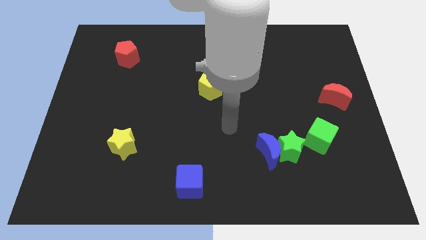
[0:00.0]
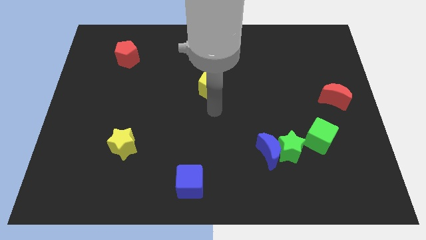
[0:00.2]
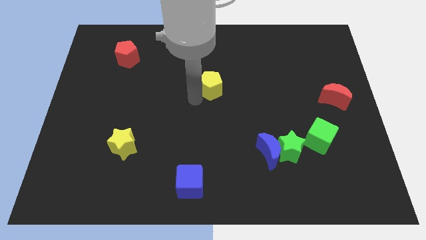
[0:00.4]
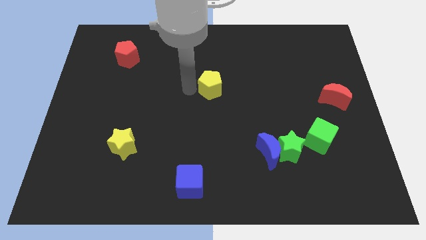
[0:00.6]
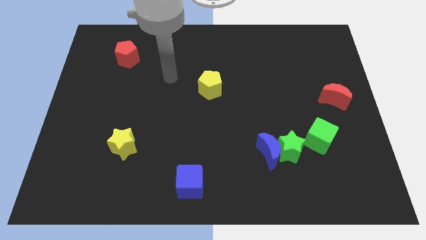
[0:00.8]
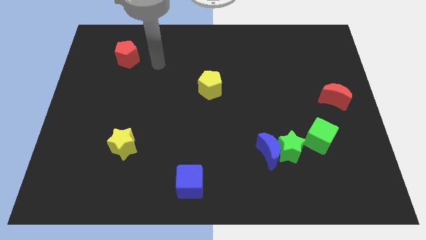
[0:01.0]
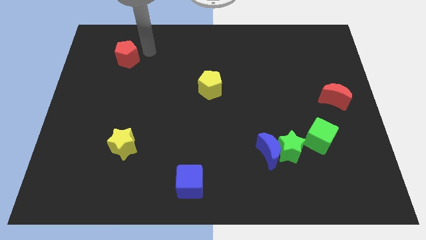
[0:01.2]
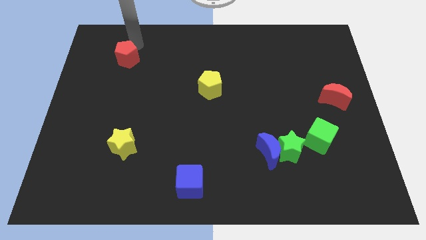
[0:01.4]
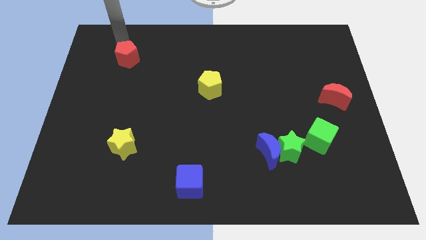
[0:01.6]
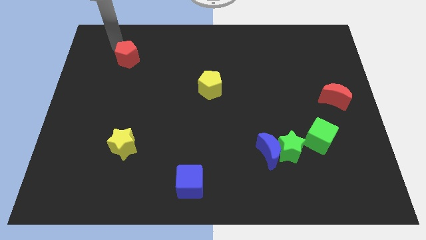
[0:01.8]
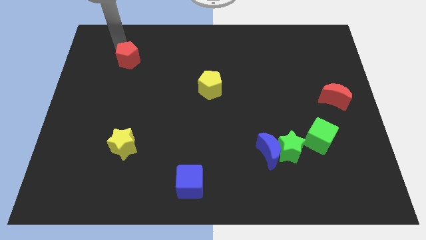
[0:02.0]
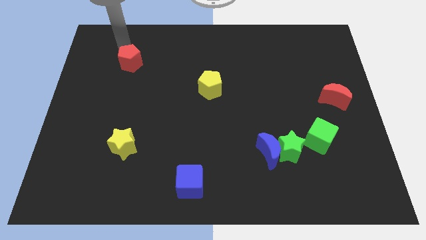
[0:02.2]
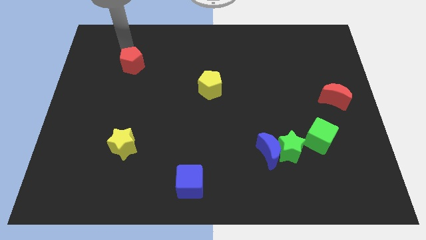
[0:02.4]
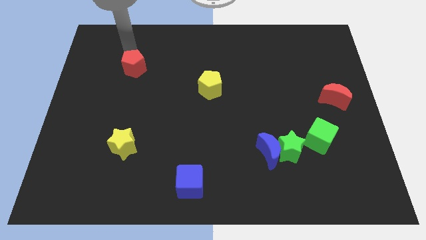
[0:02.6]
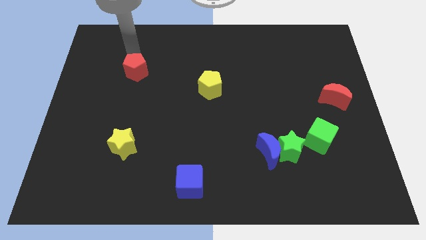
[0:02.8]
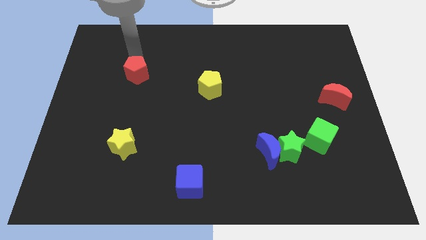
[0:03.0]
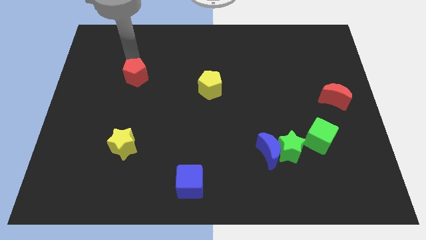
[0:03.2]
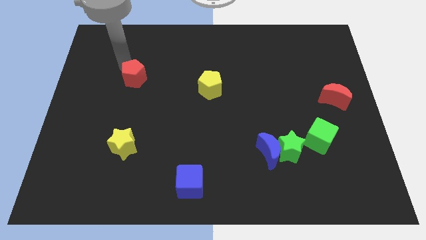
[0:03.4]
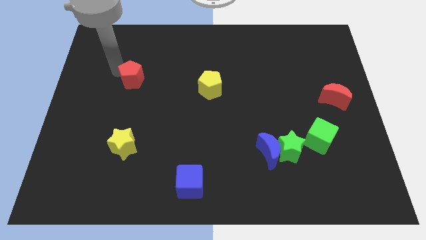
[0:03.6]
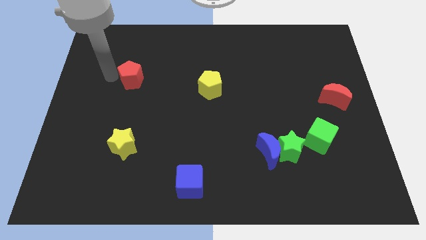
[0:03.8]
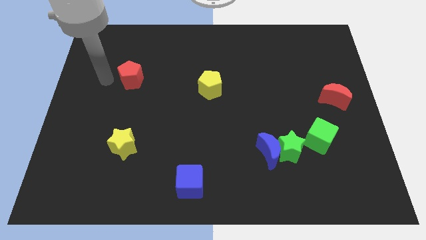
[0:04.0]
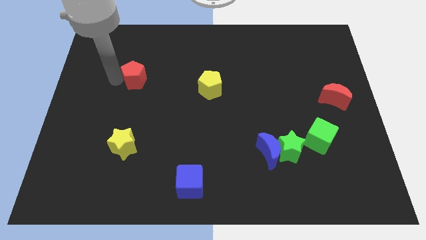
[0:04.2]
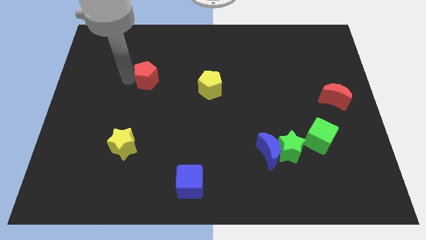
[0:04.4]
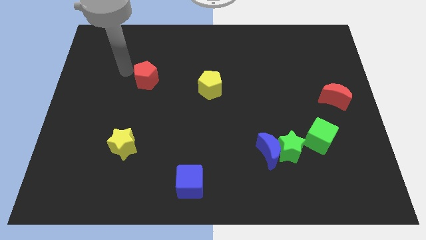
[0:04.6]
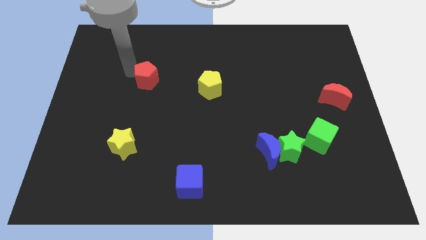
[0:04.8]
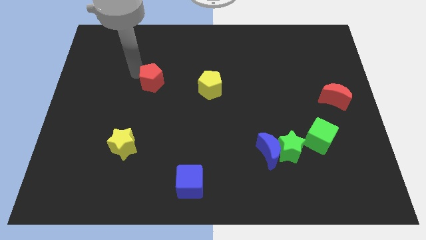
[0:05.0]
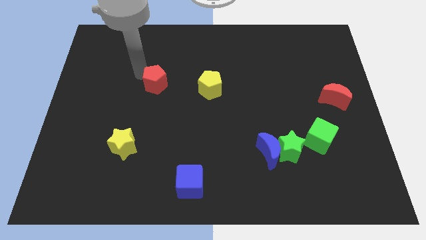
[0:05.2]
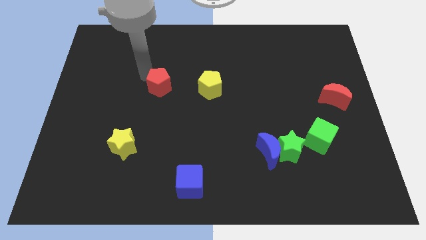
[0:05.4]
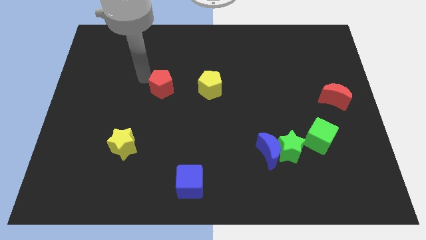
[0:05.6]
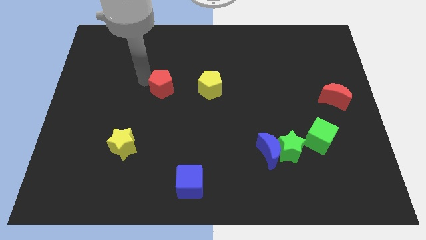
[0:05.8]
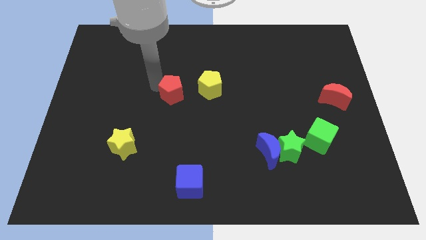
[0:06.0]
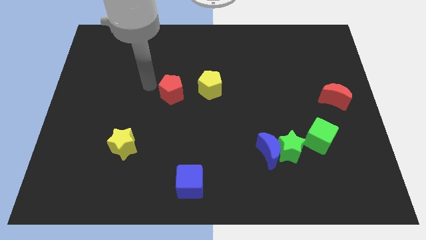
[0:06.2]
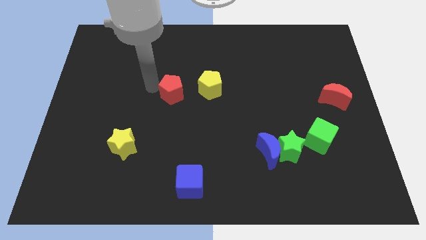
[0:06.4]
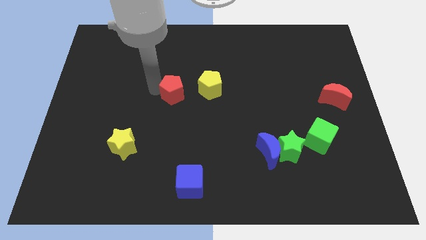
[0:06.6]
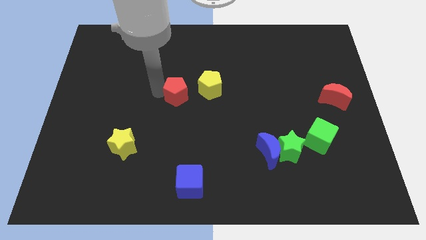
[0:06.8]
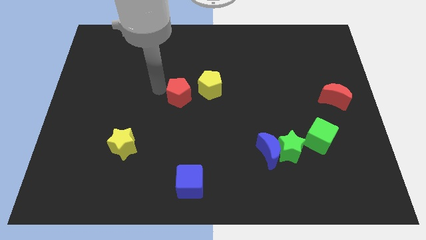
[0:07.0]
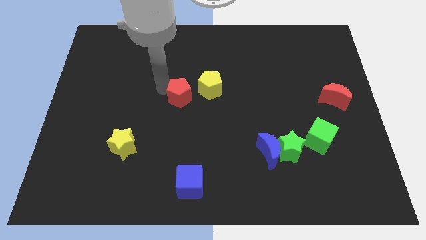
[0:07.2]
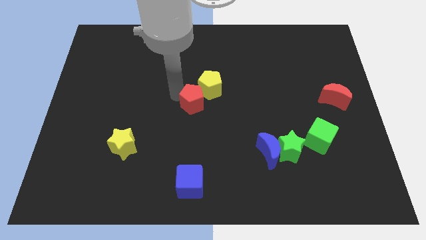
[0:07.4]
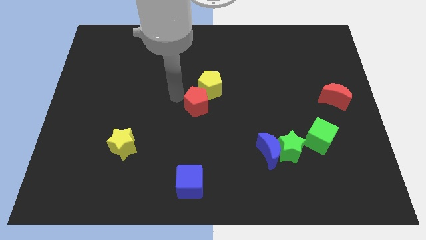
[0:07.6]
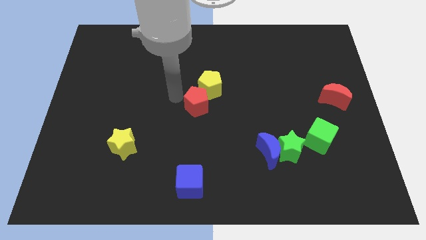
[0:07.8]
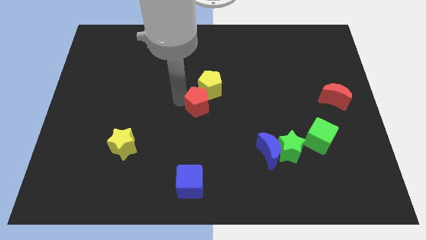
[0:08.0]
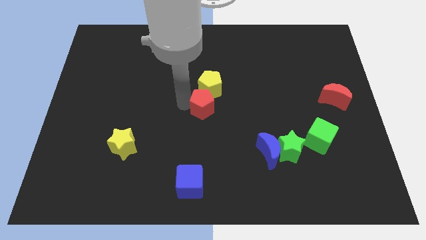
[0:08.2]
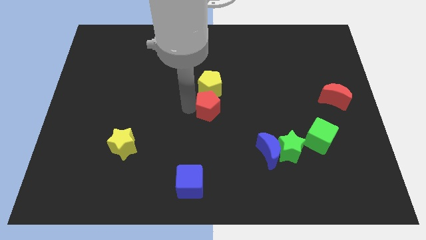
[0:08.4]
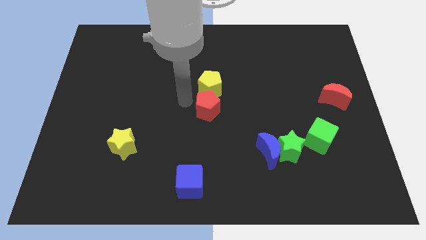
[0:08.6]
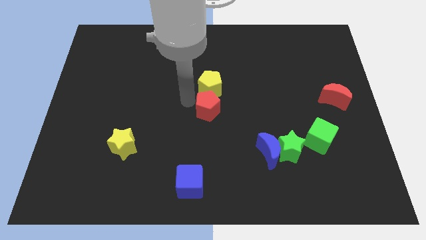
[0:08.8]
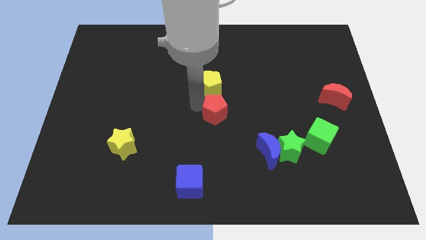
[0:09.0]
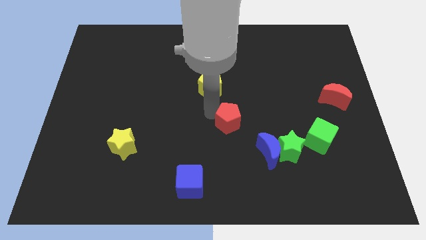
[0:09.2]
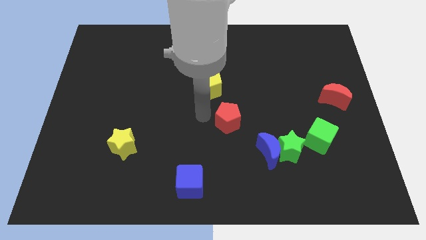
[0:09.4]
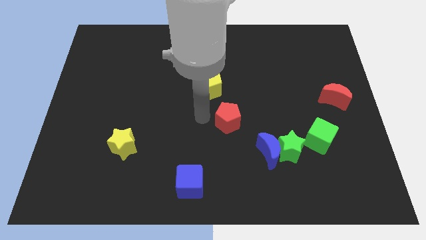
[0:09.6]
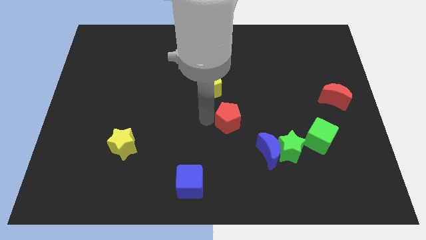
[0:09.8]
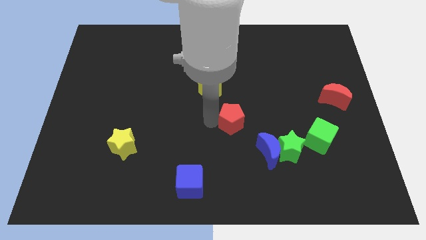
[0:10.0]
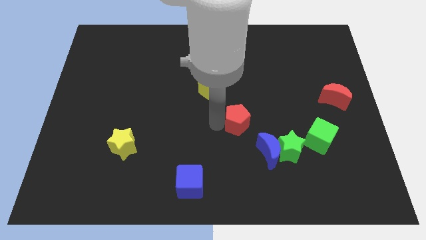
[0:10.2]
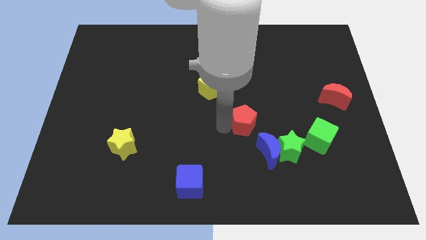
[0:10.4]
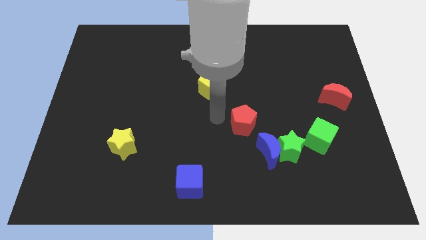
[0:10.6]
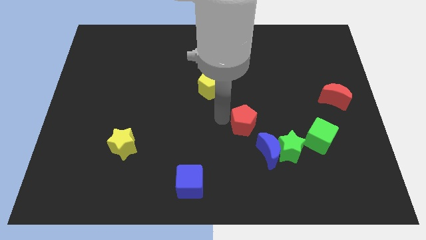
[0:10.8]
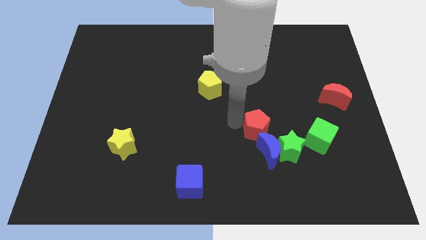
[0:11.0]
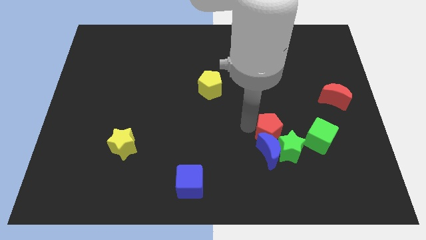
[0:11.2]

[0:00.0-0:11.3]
put the red pentagon to the green star

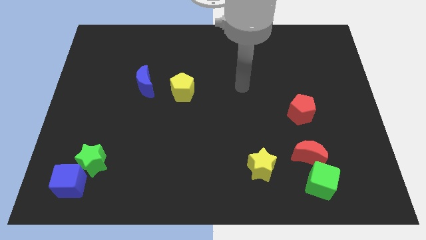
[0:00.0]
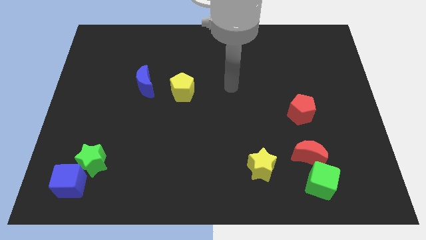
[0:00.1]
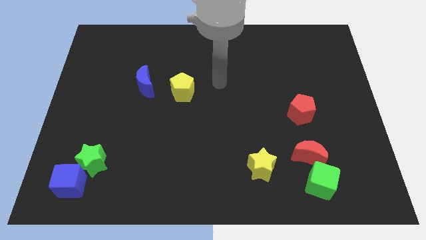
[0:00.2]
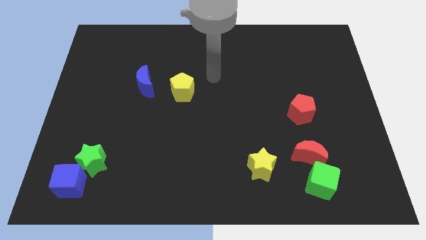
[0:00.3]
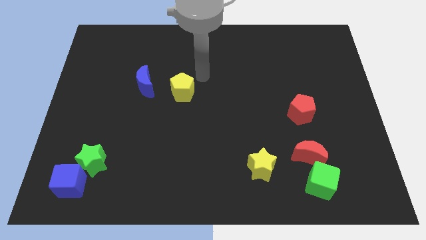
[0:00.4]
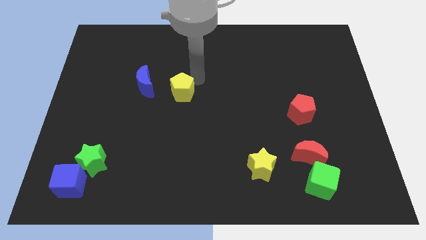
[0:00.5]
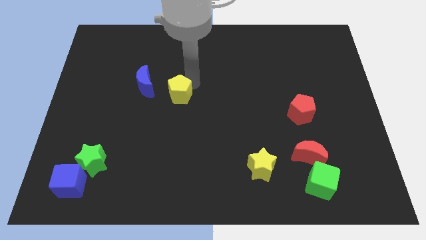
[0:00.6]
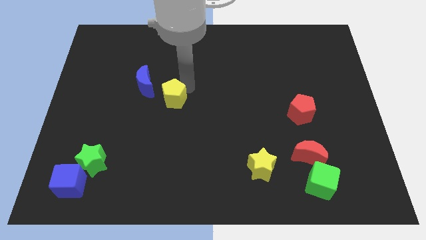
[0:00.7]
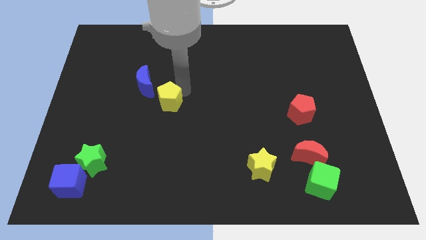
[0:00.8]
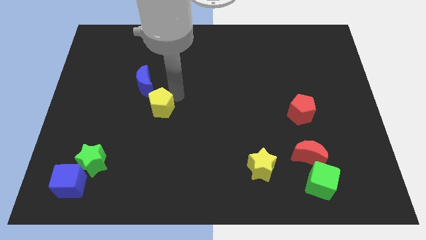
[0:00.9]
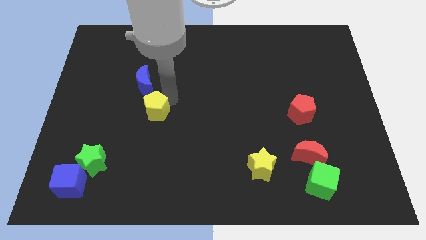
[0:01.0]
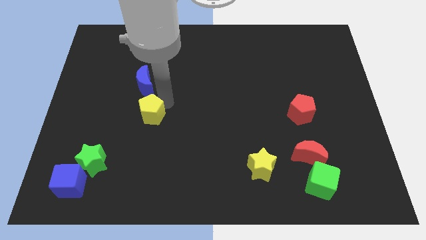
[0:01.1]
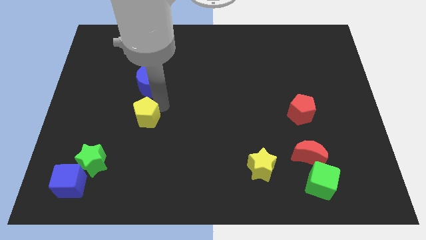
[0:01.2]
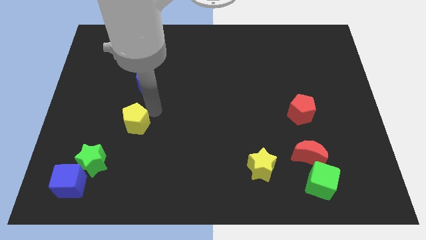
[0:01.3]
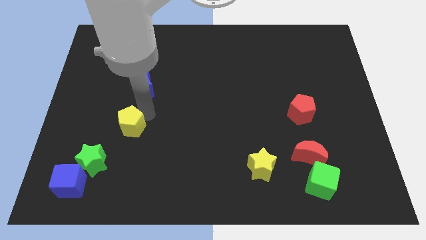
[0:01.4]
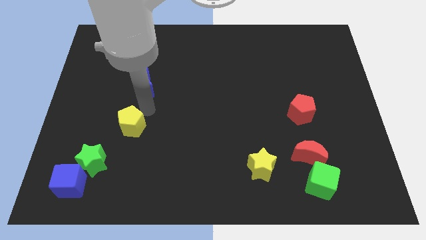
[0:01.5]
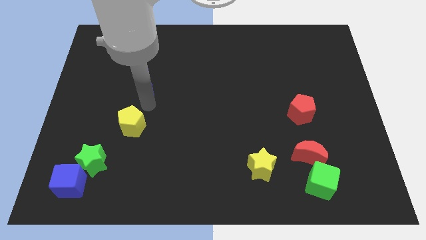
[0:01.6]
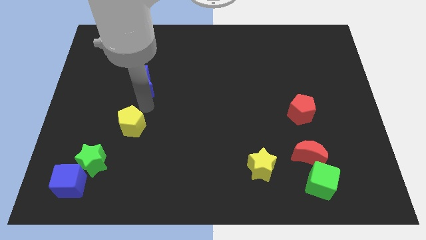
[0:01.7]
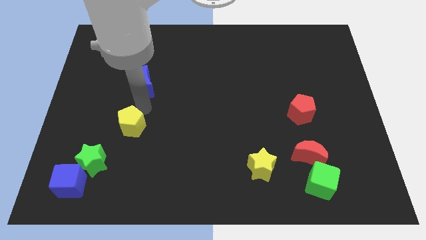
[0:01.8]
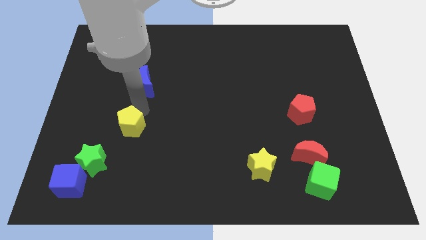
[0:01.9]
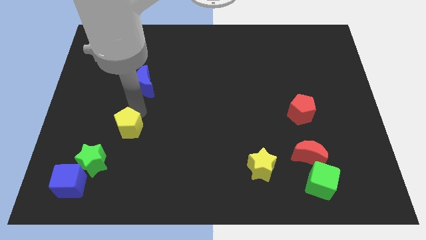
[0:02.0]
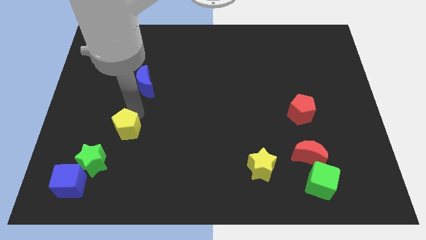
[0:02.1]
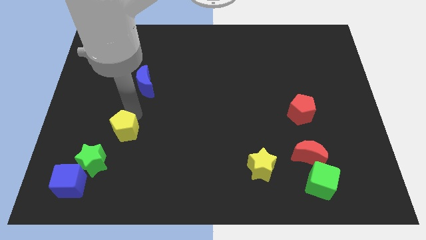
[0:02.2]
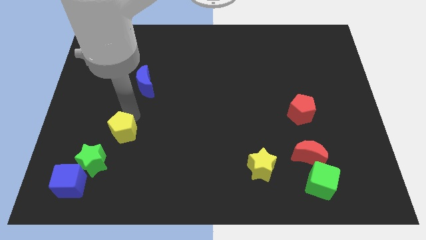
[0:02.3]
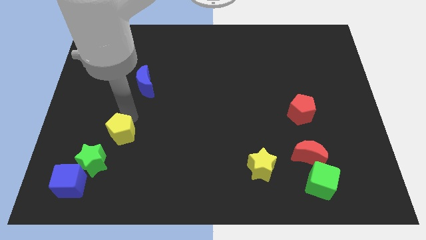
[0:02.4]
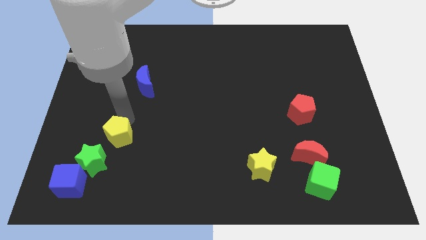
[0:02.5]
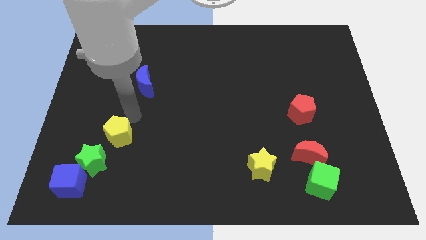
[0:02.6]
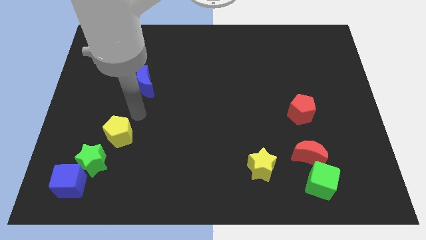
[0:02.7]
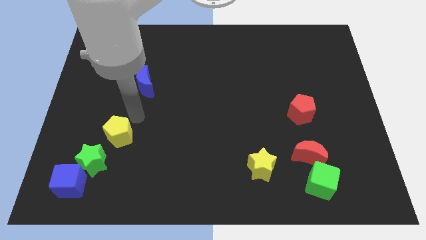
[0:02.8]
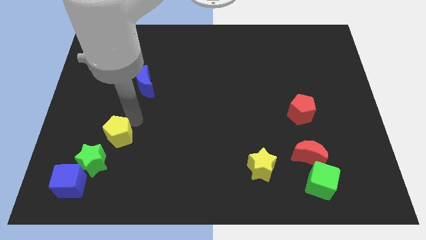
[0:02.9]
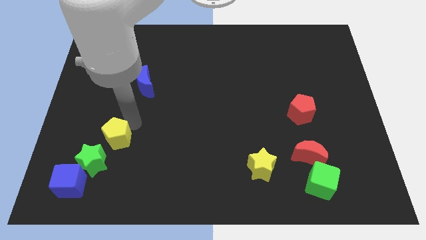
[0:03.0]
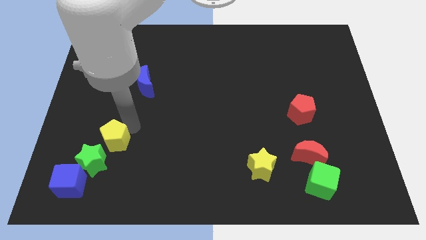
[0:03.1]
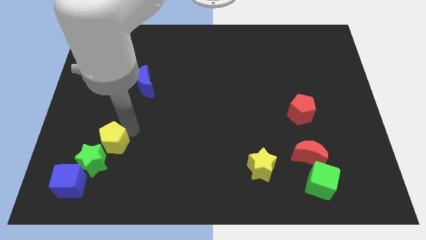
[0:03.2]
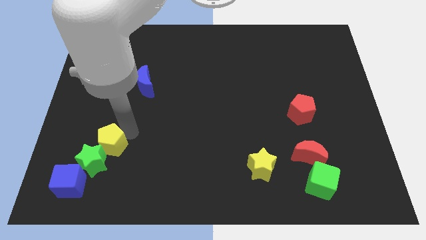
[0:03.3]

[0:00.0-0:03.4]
push the yellow pentagon towards the green star
